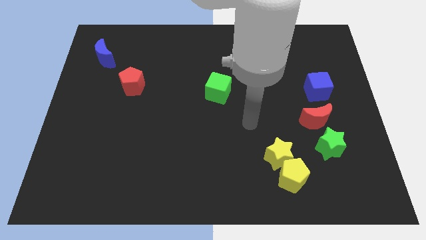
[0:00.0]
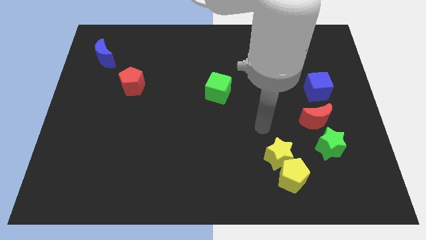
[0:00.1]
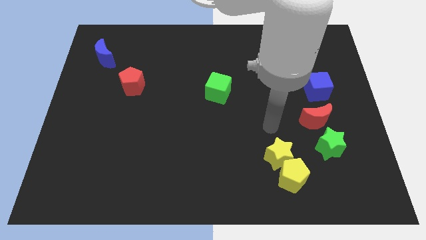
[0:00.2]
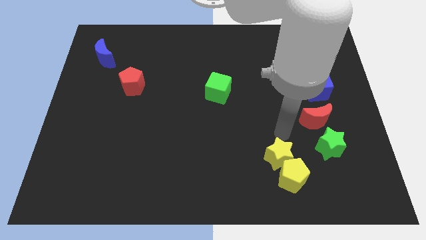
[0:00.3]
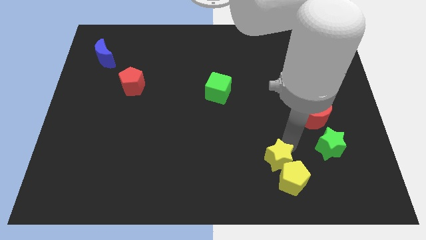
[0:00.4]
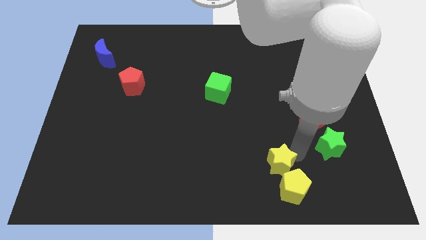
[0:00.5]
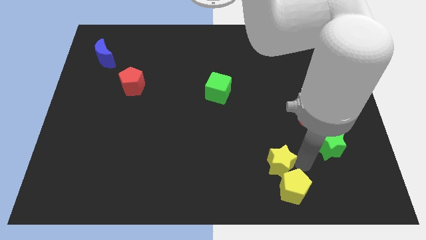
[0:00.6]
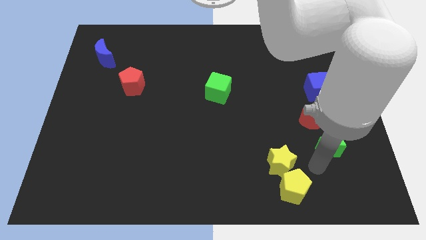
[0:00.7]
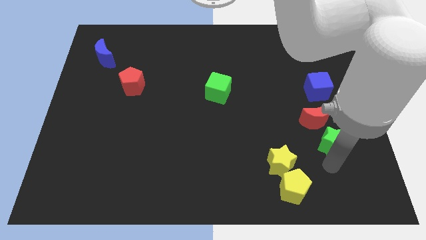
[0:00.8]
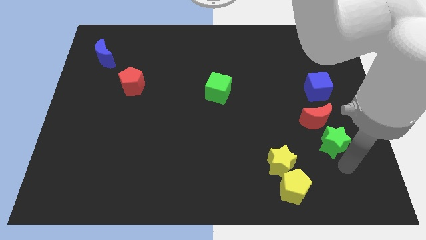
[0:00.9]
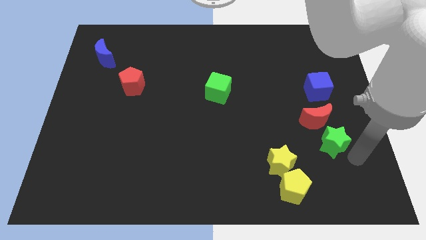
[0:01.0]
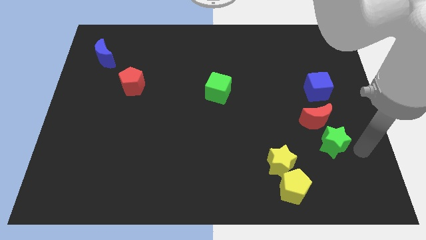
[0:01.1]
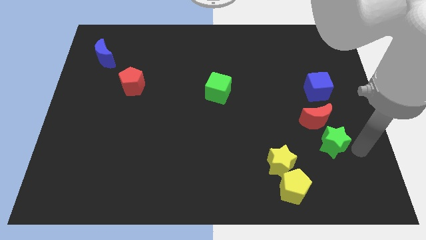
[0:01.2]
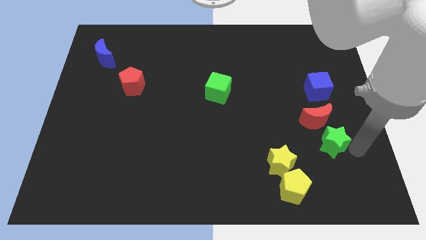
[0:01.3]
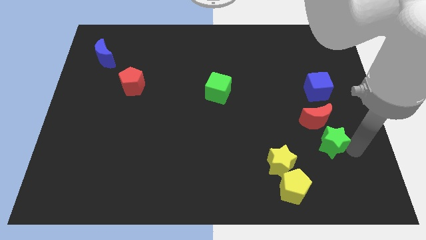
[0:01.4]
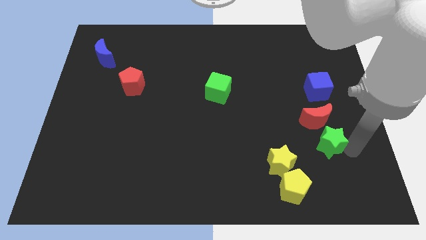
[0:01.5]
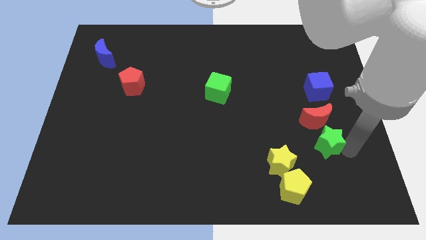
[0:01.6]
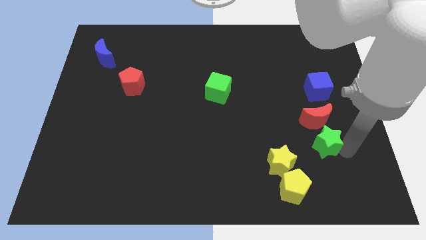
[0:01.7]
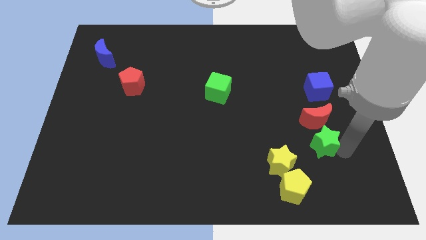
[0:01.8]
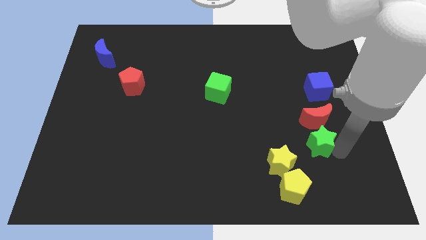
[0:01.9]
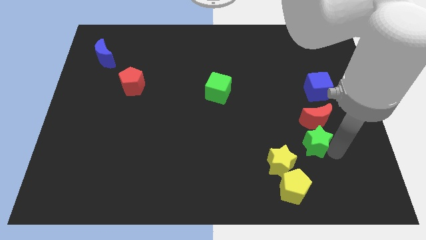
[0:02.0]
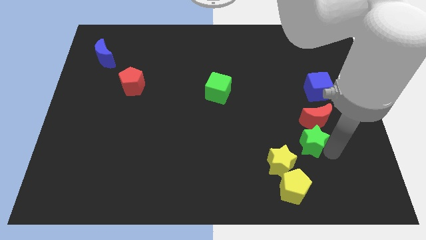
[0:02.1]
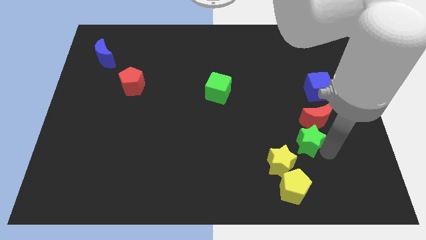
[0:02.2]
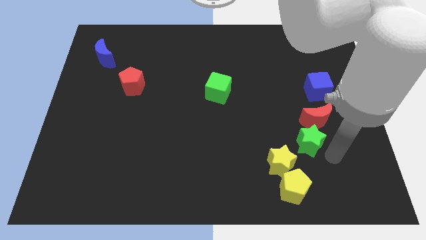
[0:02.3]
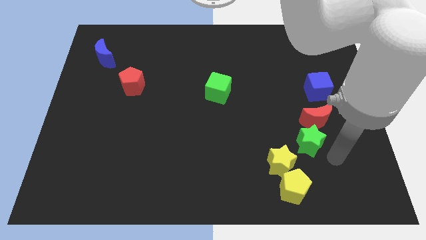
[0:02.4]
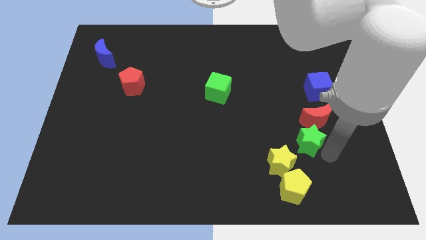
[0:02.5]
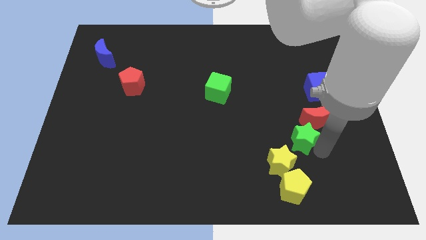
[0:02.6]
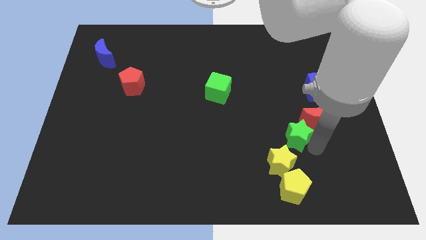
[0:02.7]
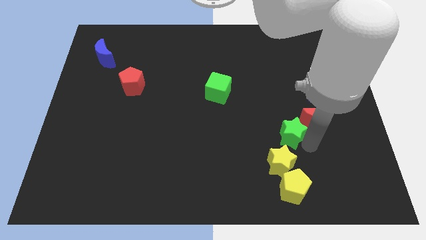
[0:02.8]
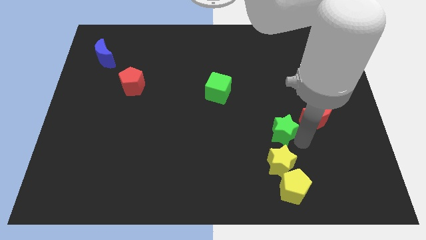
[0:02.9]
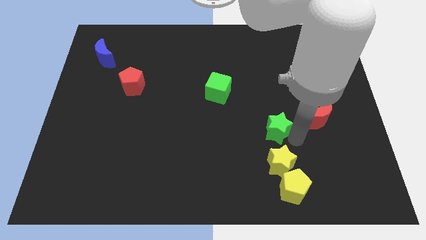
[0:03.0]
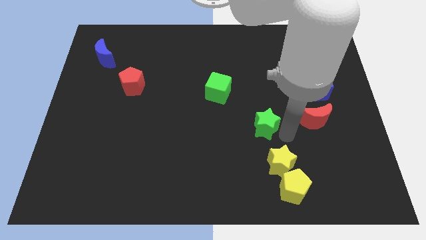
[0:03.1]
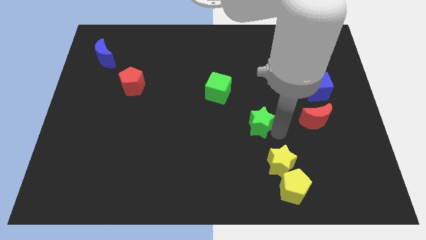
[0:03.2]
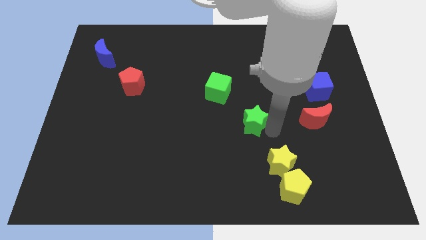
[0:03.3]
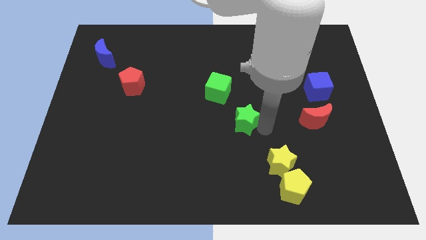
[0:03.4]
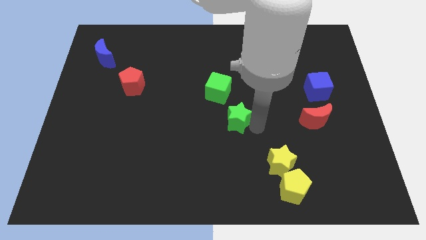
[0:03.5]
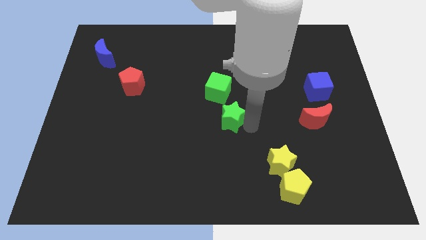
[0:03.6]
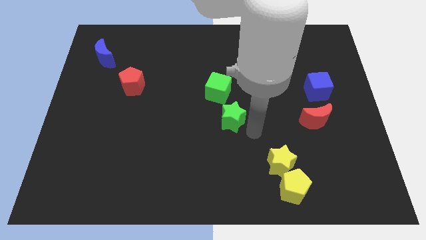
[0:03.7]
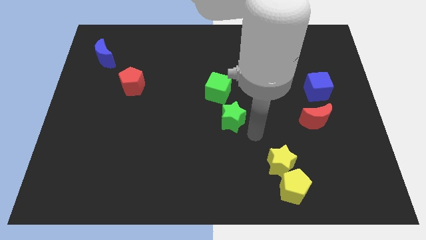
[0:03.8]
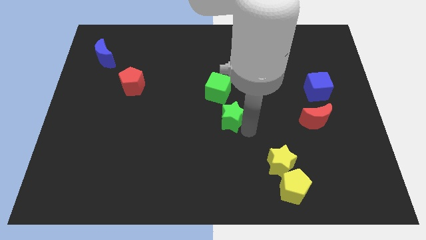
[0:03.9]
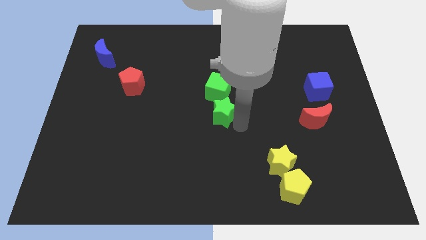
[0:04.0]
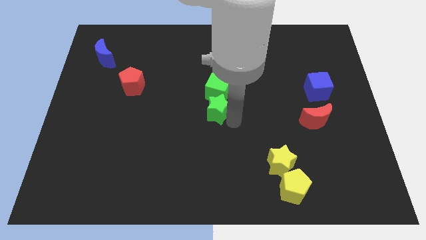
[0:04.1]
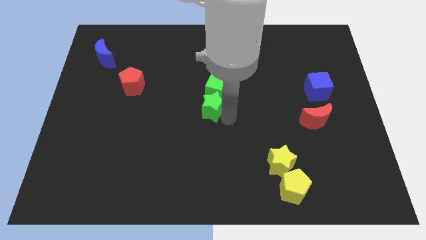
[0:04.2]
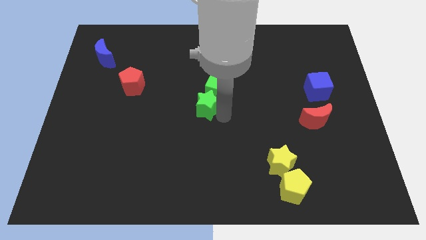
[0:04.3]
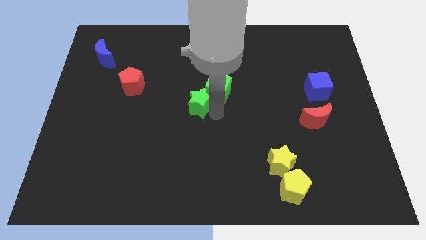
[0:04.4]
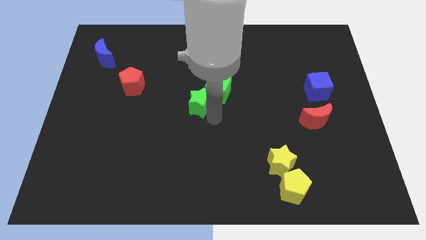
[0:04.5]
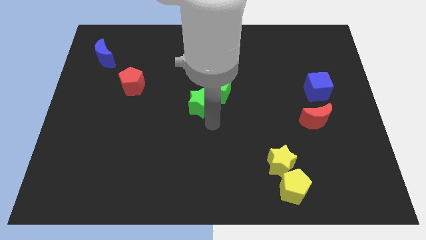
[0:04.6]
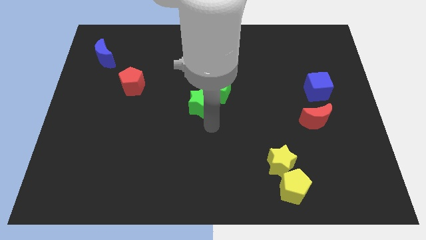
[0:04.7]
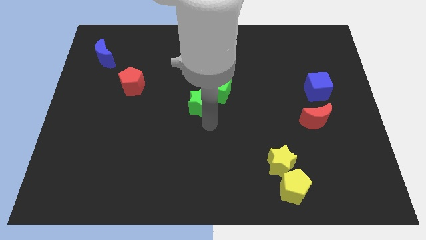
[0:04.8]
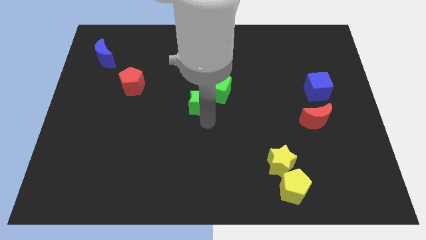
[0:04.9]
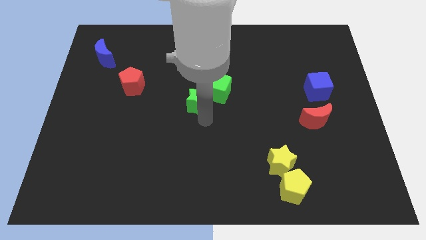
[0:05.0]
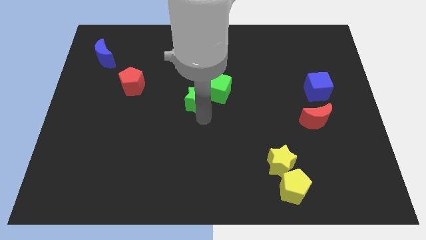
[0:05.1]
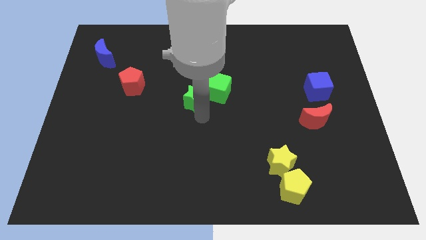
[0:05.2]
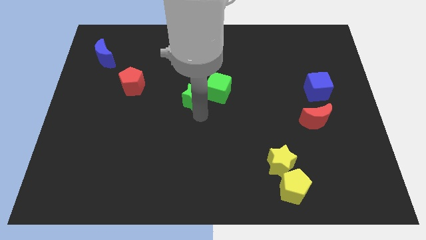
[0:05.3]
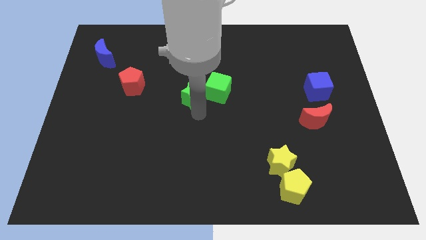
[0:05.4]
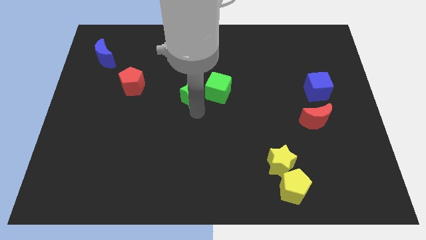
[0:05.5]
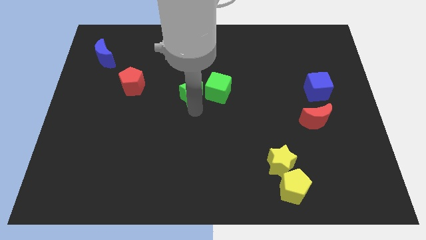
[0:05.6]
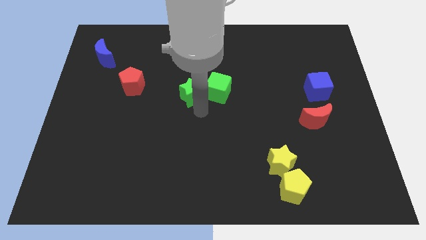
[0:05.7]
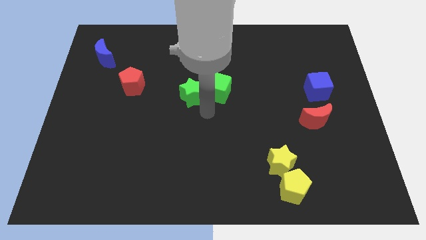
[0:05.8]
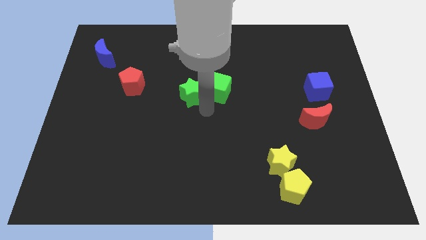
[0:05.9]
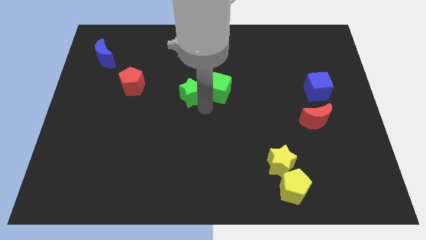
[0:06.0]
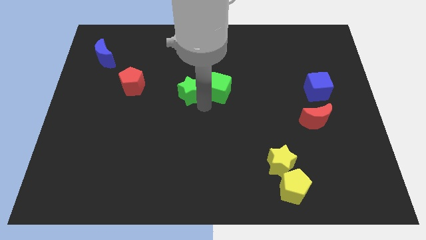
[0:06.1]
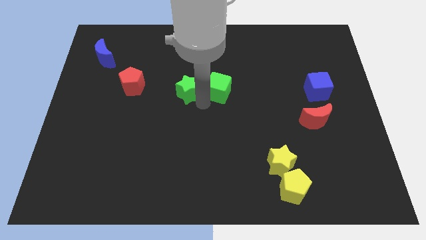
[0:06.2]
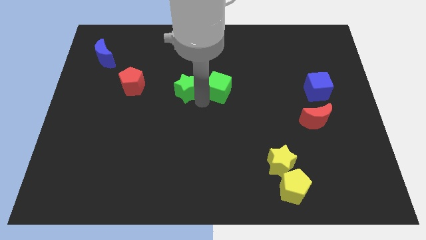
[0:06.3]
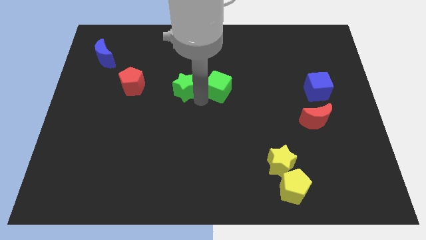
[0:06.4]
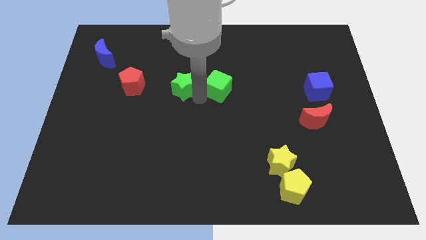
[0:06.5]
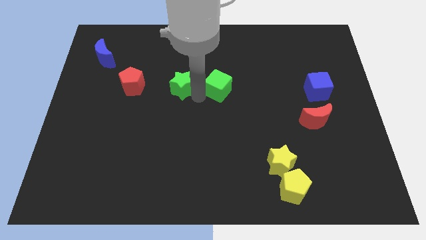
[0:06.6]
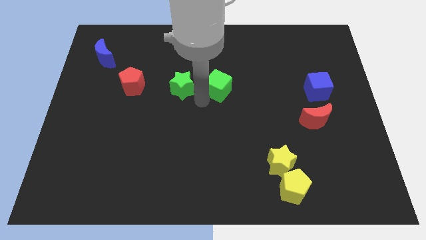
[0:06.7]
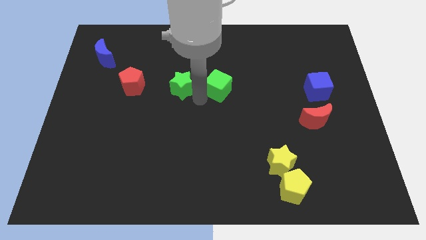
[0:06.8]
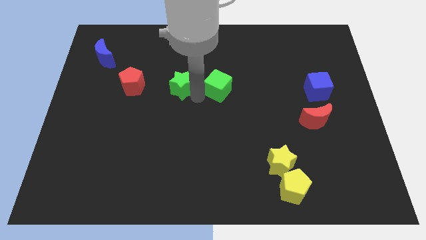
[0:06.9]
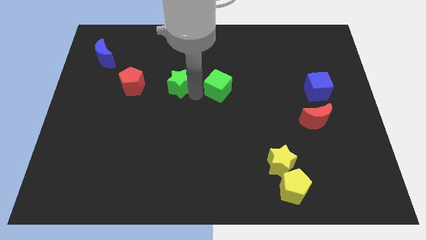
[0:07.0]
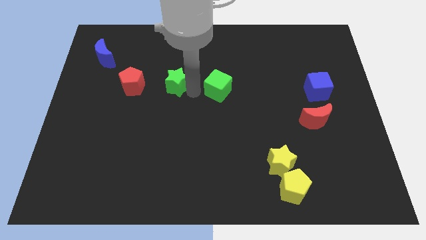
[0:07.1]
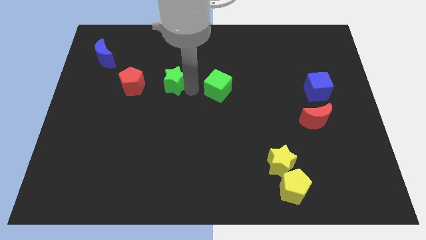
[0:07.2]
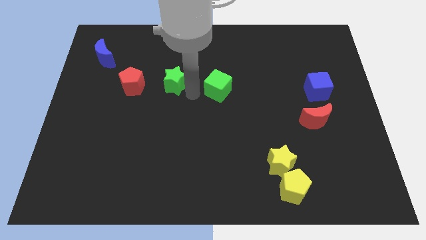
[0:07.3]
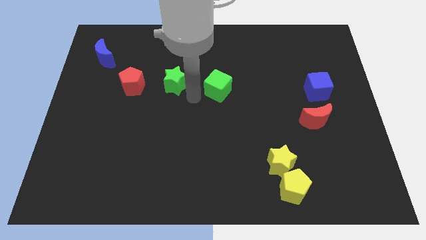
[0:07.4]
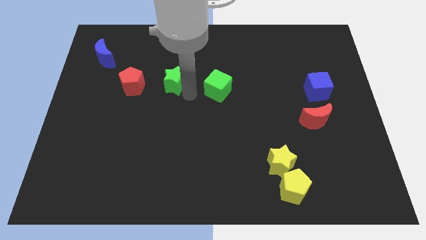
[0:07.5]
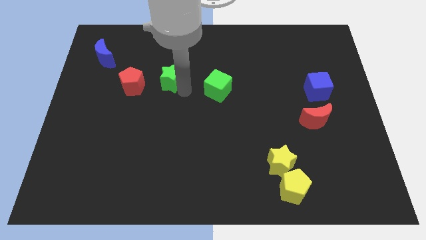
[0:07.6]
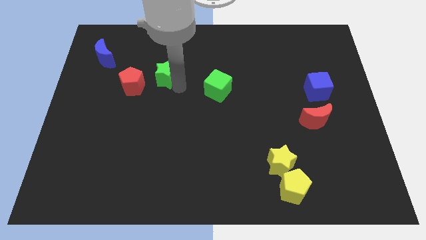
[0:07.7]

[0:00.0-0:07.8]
slide the green star to the top right of the red pentagon

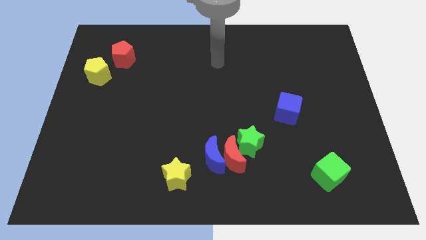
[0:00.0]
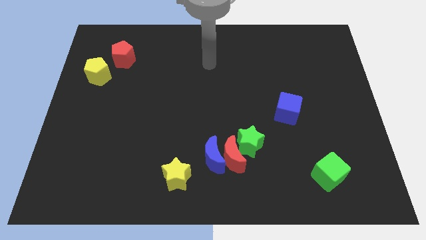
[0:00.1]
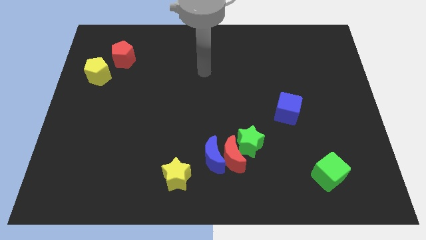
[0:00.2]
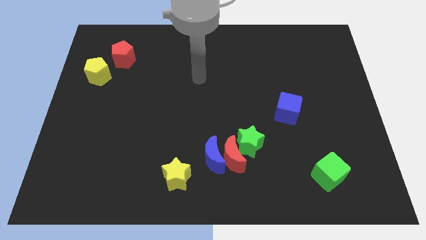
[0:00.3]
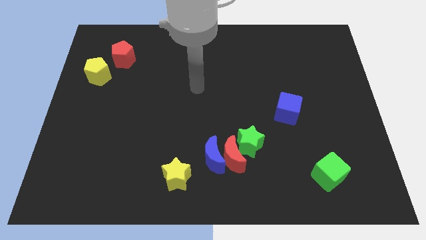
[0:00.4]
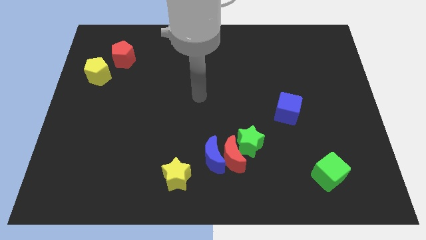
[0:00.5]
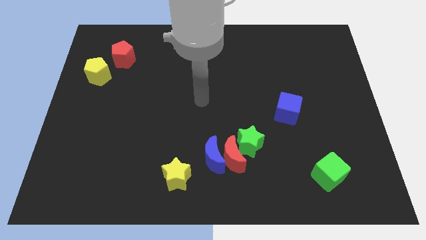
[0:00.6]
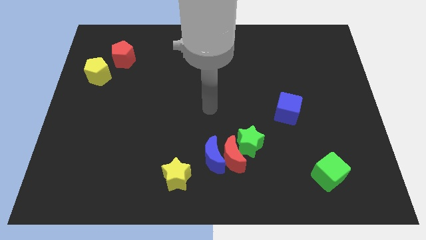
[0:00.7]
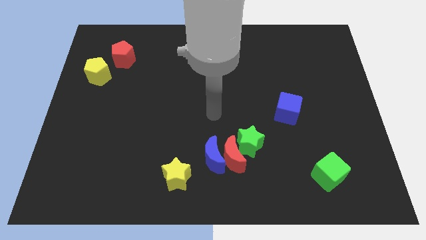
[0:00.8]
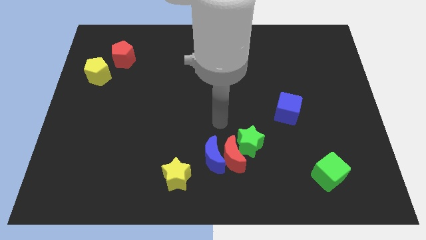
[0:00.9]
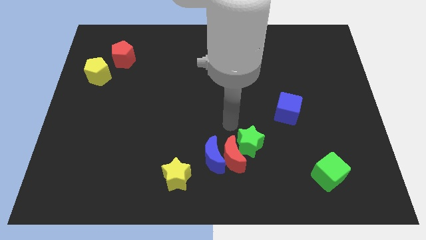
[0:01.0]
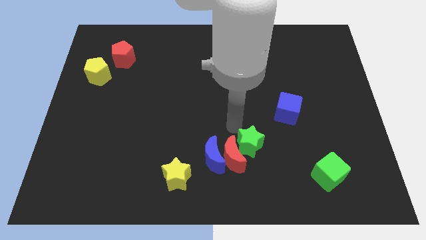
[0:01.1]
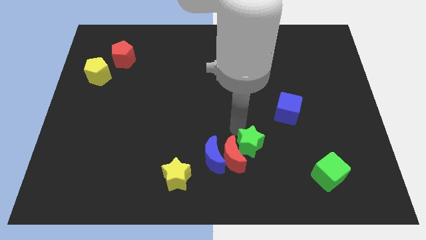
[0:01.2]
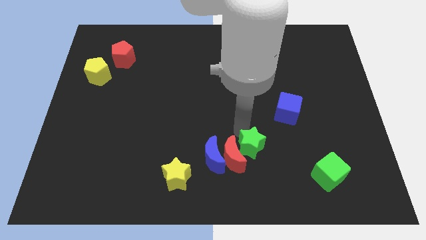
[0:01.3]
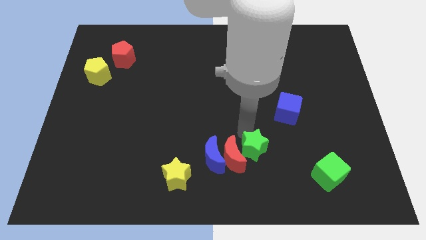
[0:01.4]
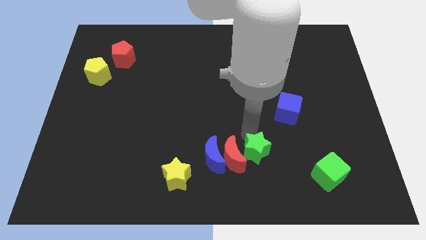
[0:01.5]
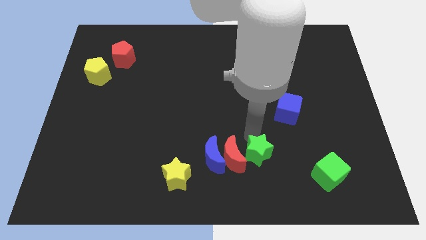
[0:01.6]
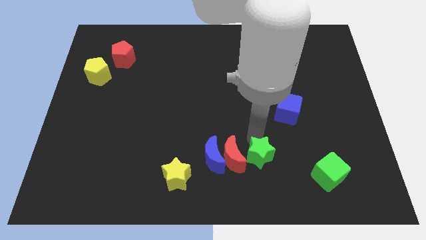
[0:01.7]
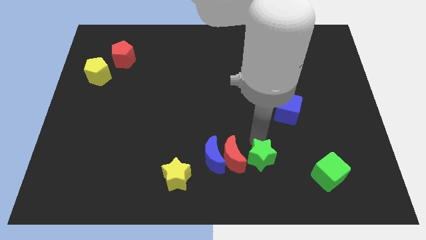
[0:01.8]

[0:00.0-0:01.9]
slide the green star left of the green cube
